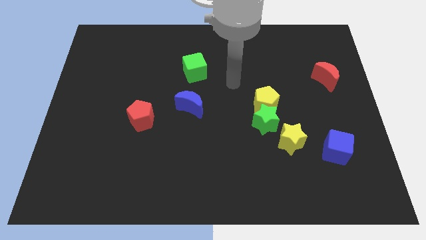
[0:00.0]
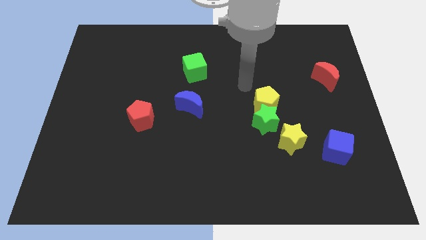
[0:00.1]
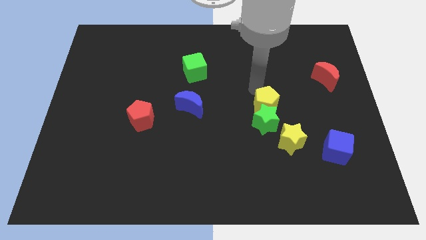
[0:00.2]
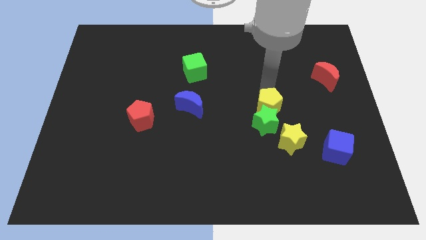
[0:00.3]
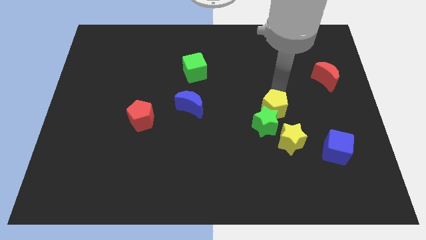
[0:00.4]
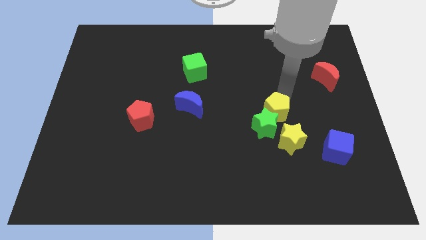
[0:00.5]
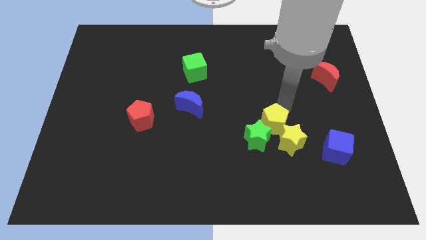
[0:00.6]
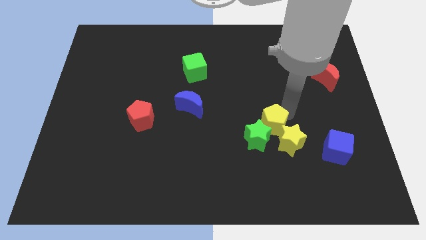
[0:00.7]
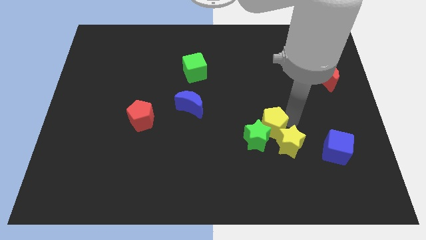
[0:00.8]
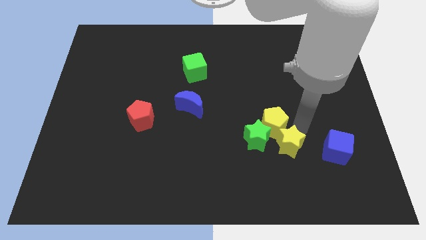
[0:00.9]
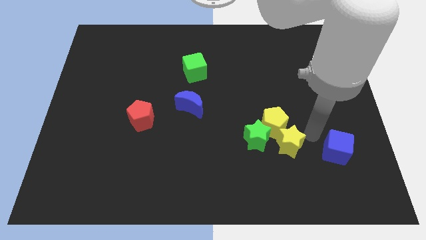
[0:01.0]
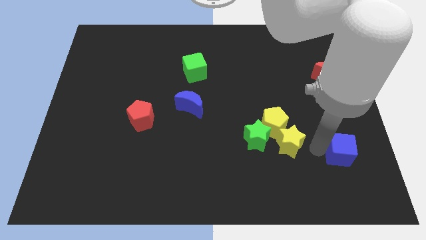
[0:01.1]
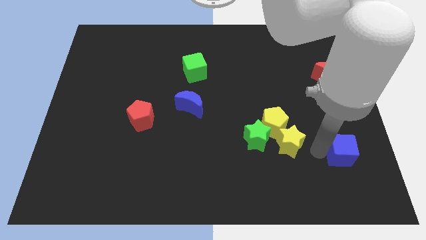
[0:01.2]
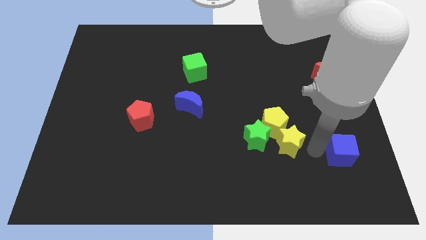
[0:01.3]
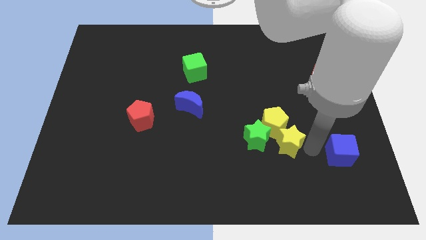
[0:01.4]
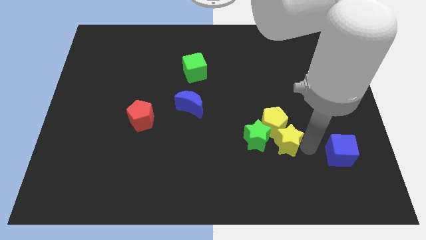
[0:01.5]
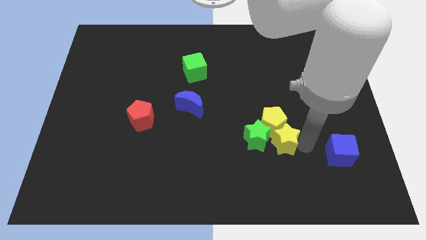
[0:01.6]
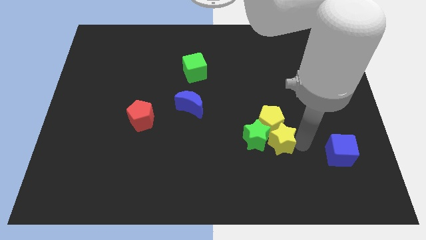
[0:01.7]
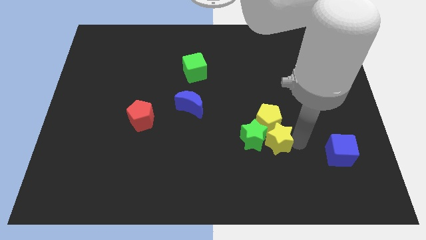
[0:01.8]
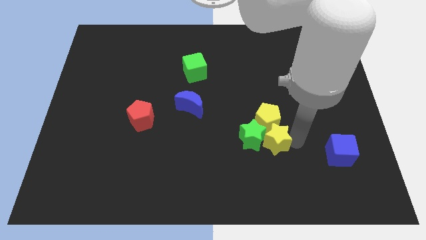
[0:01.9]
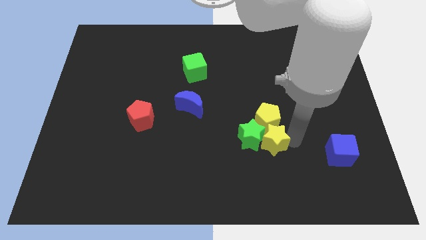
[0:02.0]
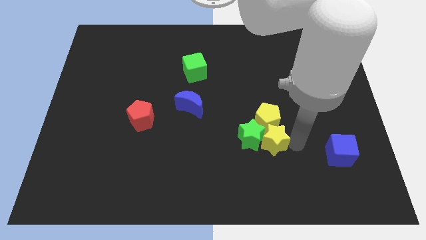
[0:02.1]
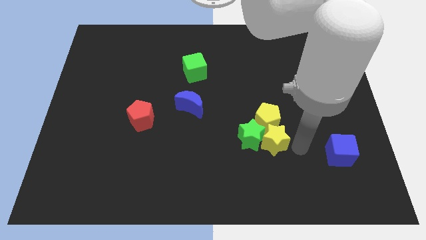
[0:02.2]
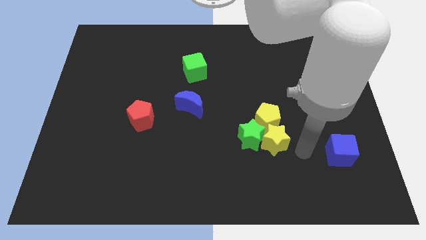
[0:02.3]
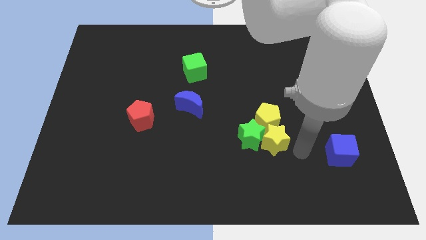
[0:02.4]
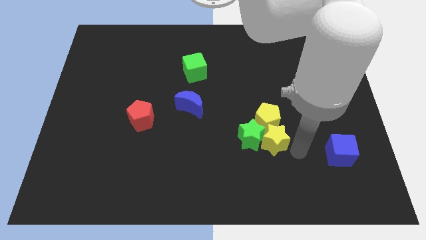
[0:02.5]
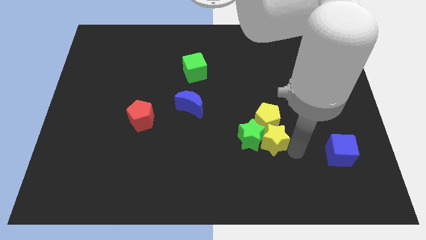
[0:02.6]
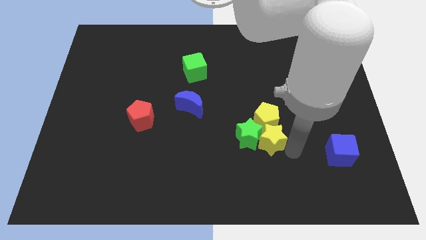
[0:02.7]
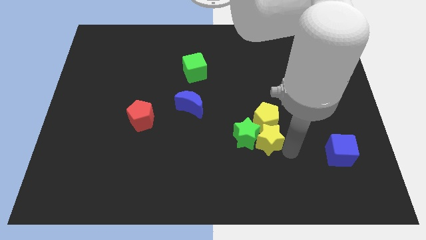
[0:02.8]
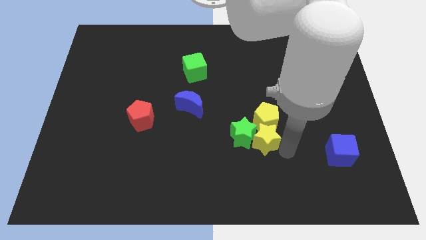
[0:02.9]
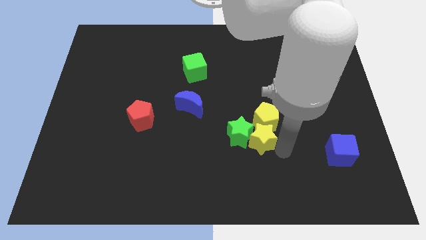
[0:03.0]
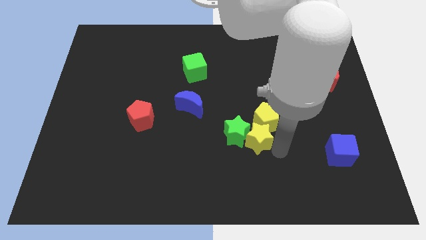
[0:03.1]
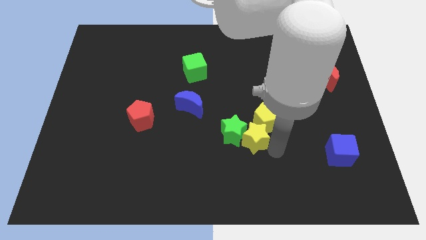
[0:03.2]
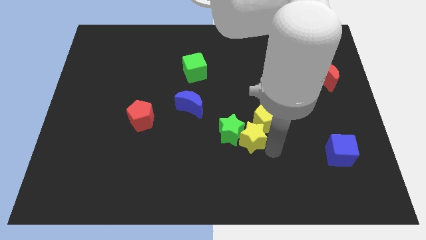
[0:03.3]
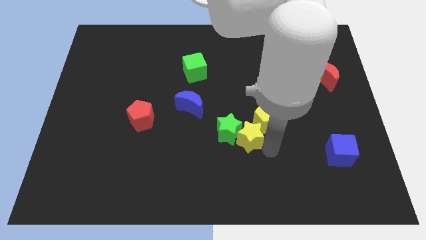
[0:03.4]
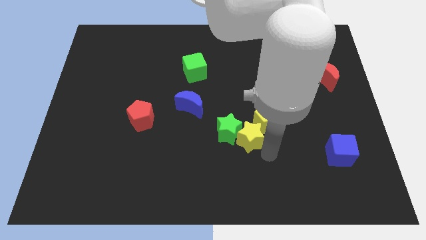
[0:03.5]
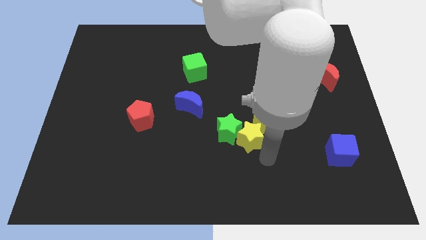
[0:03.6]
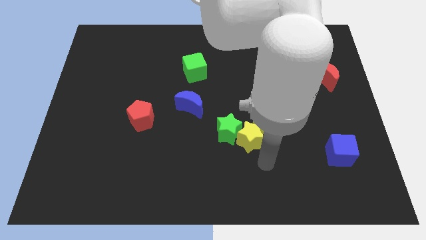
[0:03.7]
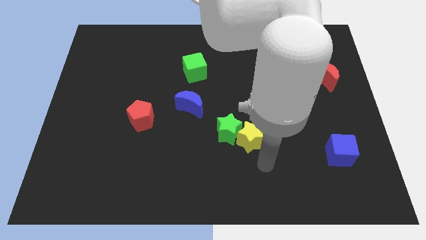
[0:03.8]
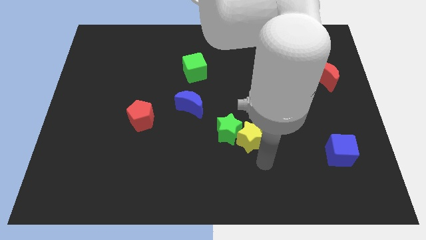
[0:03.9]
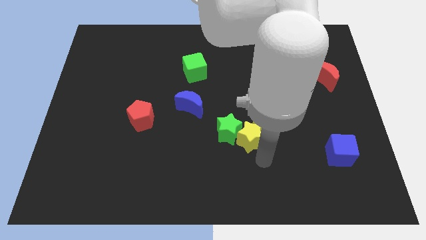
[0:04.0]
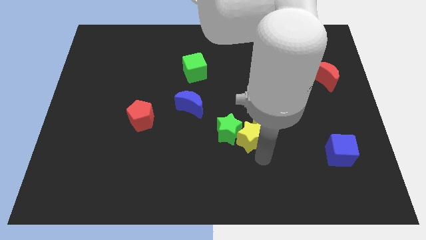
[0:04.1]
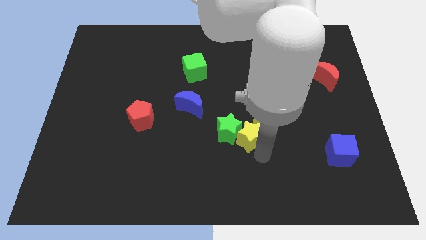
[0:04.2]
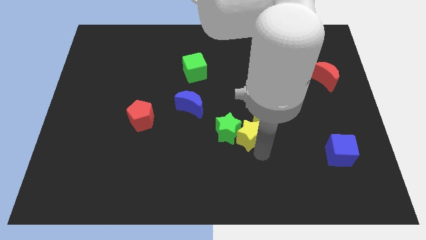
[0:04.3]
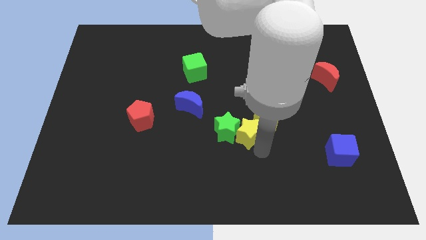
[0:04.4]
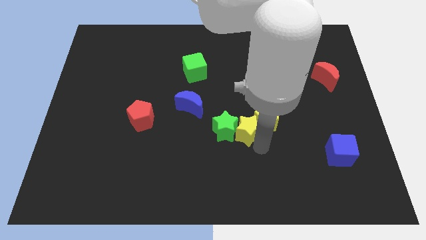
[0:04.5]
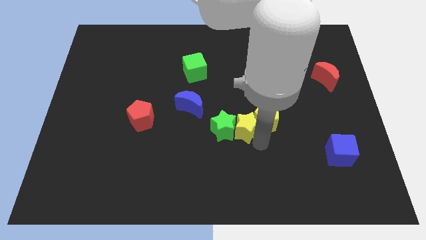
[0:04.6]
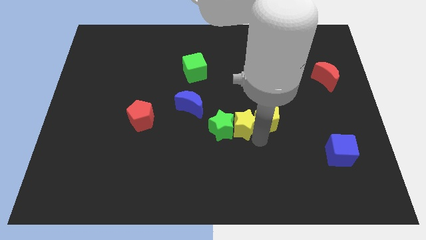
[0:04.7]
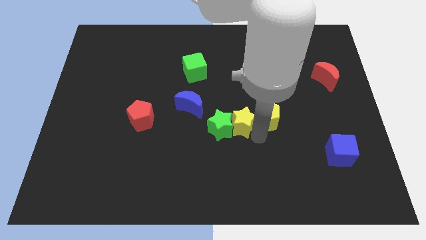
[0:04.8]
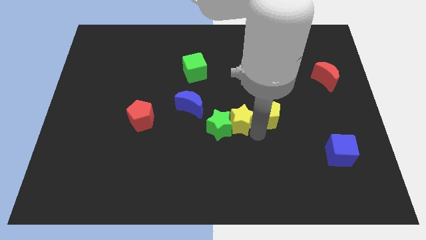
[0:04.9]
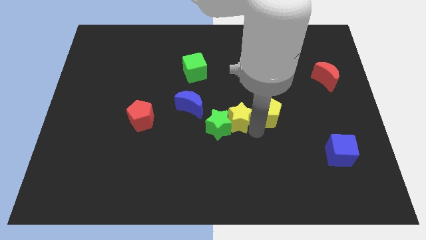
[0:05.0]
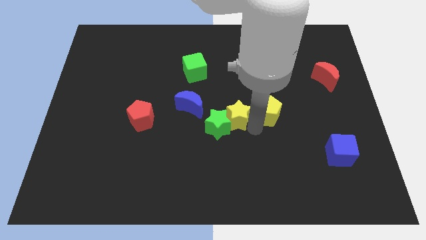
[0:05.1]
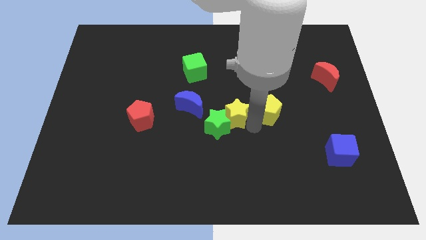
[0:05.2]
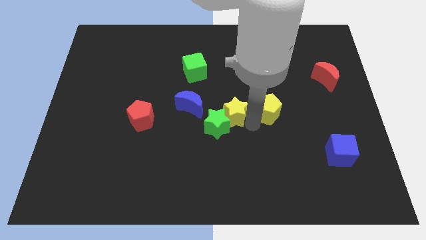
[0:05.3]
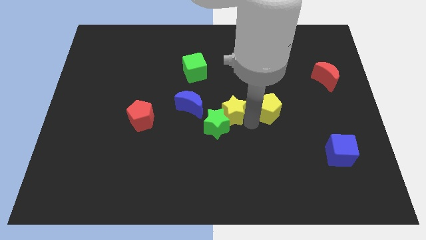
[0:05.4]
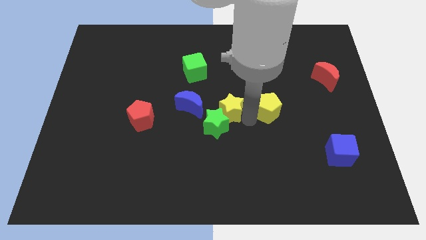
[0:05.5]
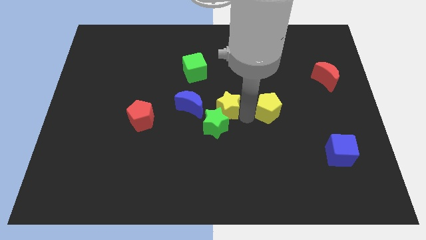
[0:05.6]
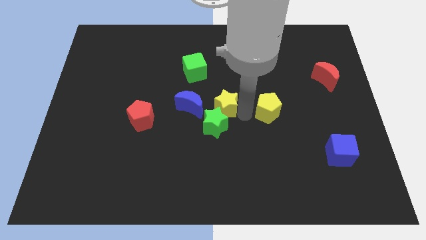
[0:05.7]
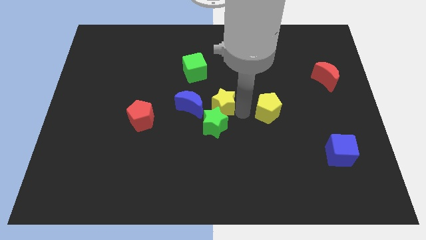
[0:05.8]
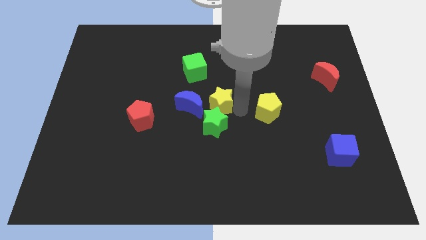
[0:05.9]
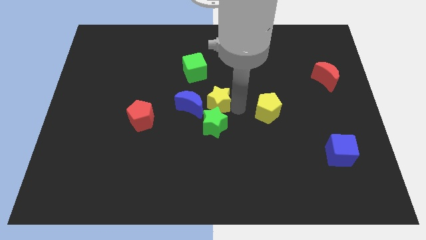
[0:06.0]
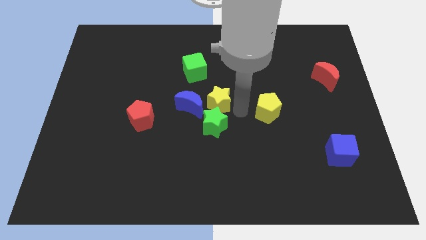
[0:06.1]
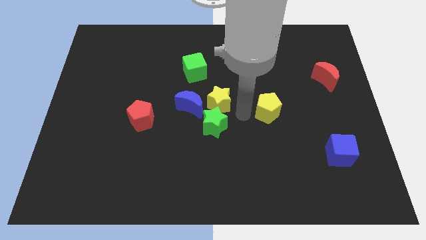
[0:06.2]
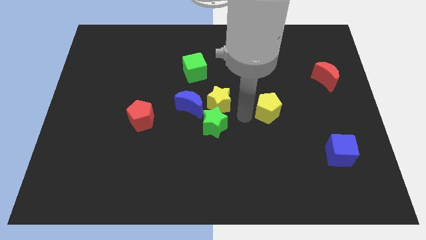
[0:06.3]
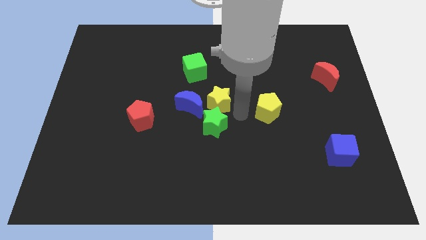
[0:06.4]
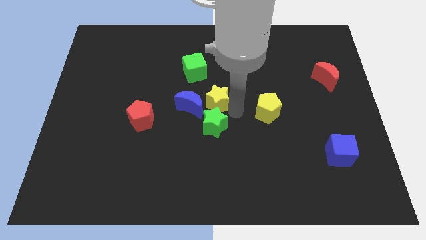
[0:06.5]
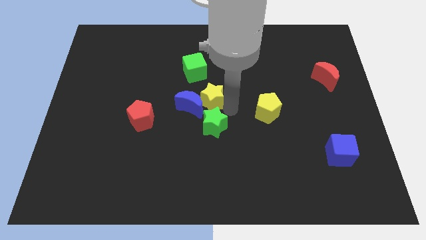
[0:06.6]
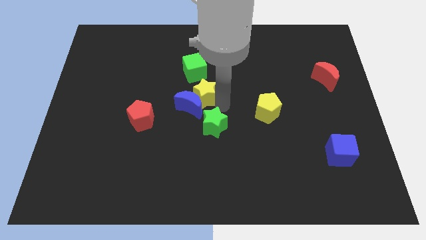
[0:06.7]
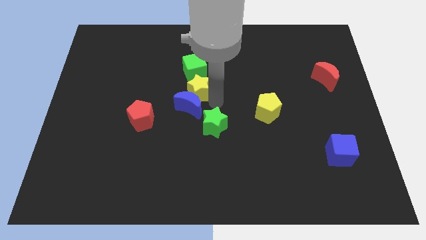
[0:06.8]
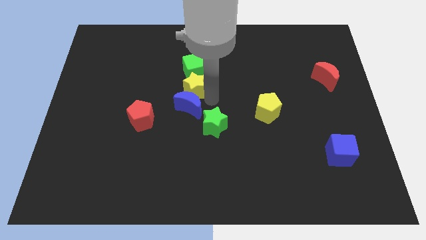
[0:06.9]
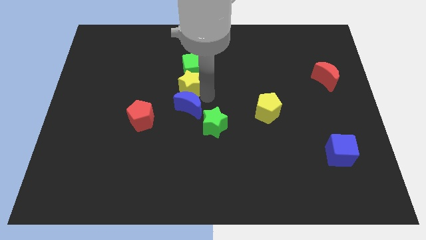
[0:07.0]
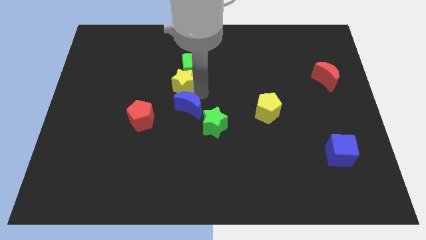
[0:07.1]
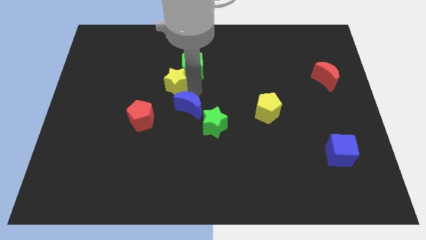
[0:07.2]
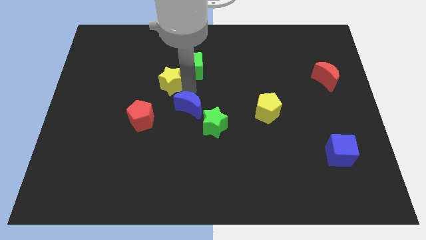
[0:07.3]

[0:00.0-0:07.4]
push the yellow star just left of the green cube
